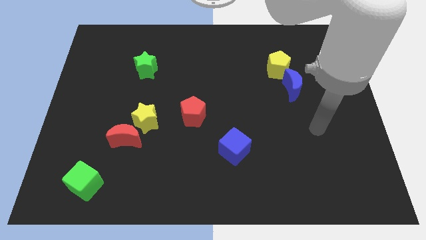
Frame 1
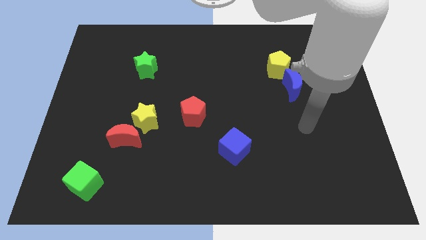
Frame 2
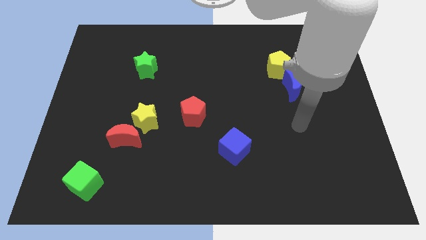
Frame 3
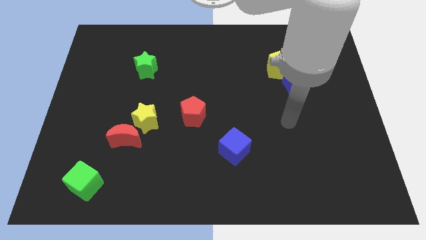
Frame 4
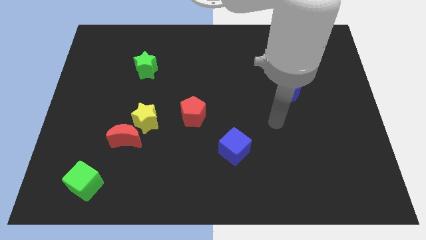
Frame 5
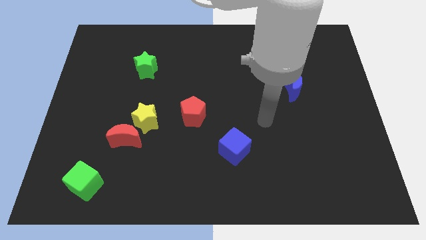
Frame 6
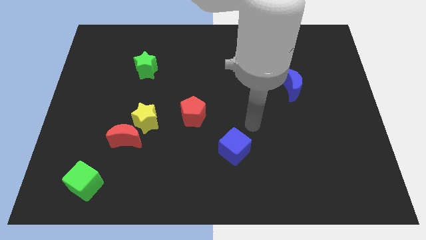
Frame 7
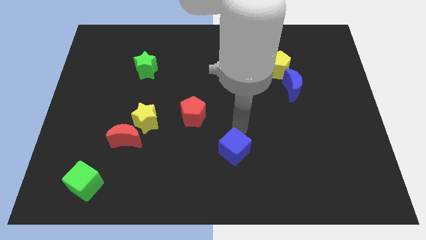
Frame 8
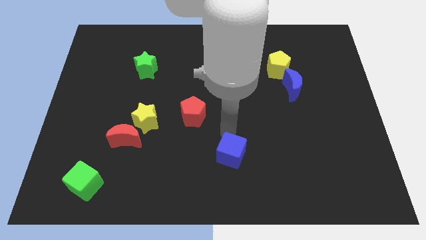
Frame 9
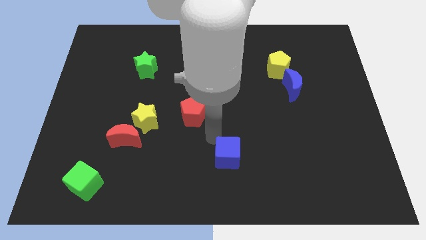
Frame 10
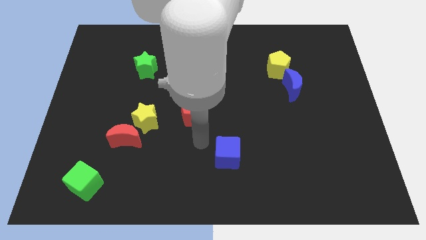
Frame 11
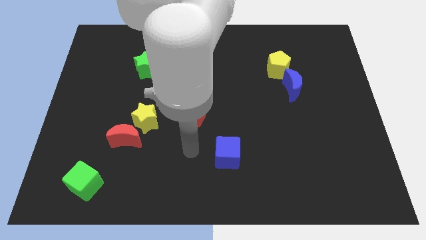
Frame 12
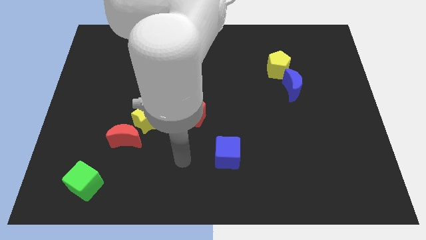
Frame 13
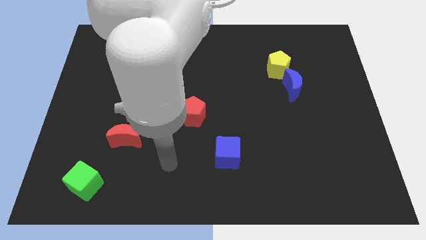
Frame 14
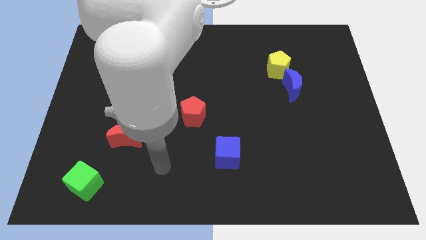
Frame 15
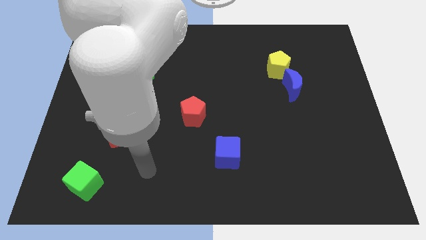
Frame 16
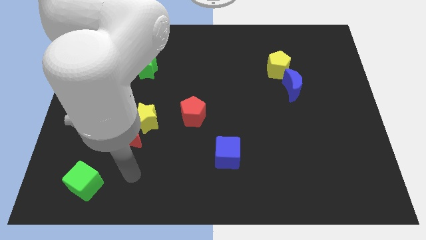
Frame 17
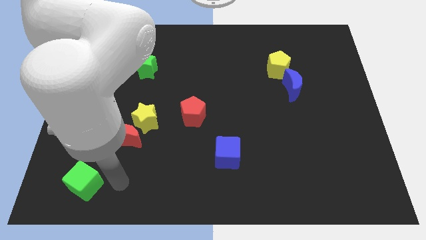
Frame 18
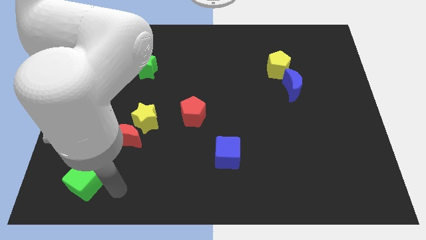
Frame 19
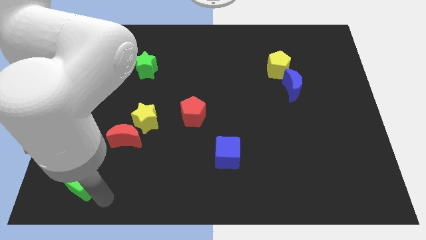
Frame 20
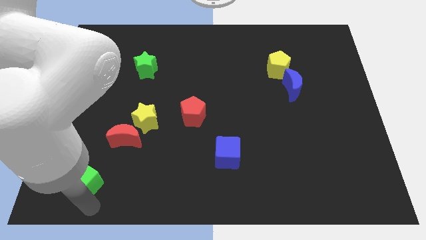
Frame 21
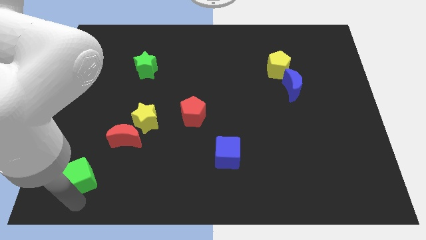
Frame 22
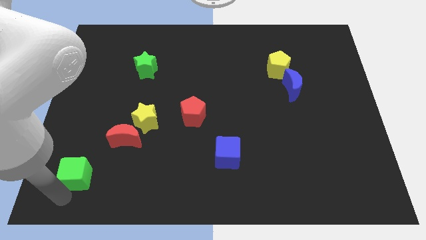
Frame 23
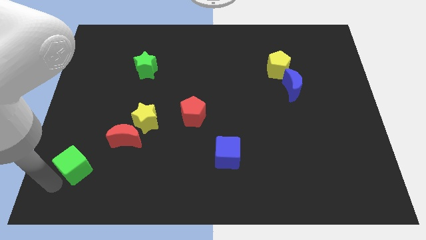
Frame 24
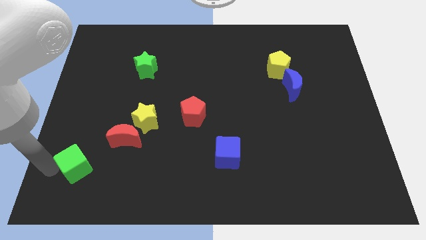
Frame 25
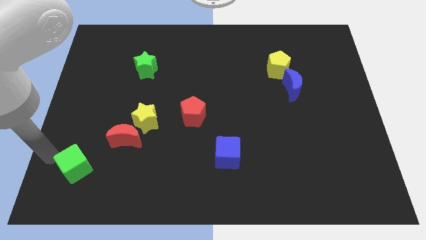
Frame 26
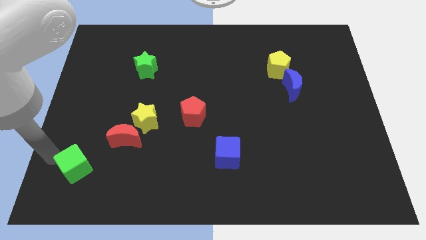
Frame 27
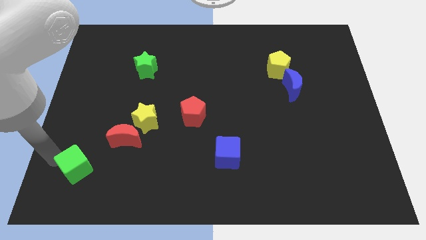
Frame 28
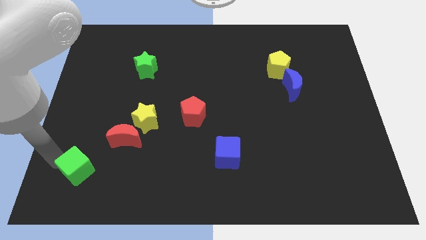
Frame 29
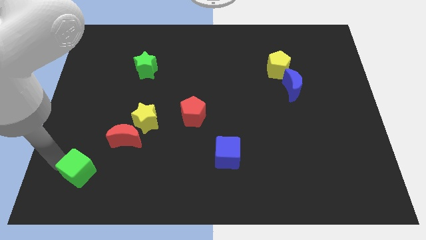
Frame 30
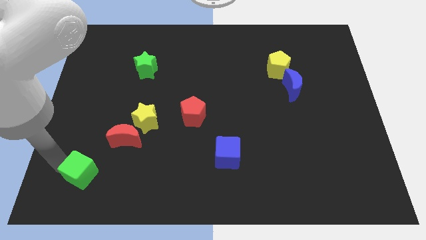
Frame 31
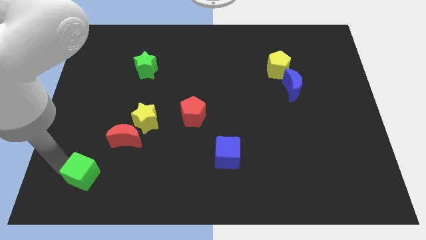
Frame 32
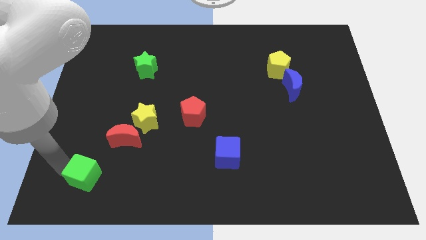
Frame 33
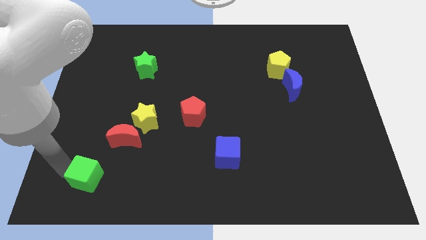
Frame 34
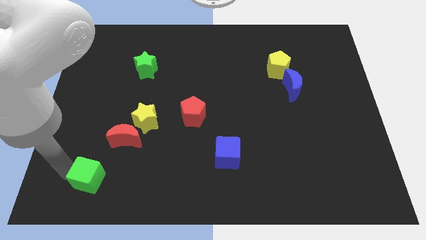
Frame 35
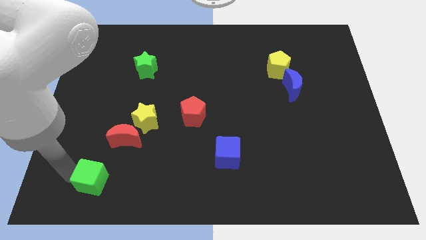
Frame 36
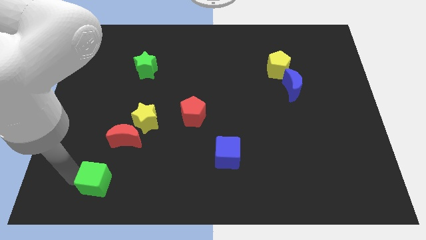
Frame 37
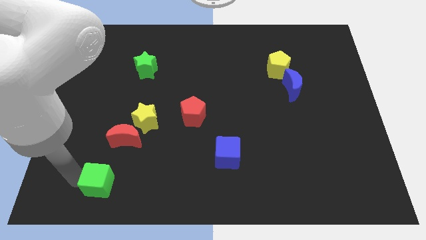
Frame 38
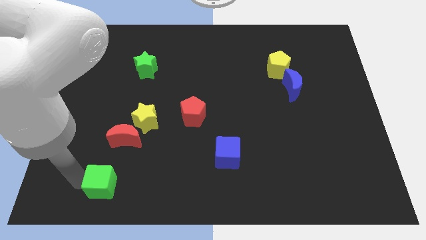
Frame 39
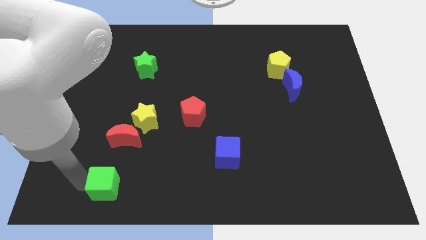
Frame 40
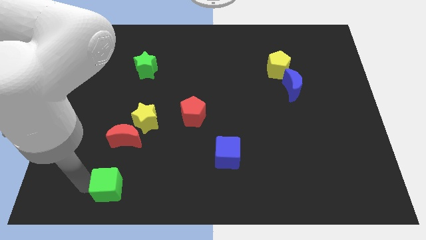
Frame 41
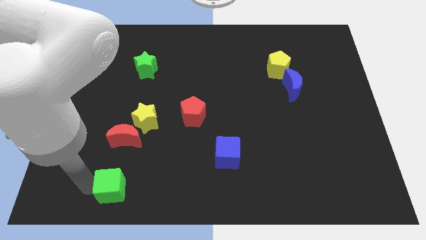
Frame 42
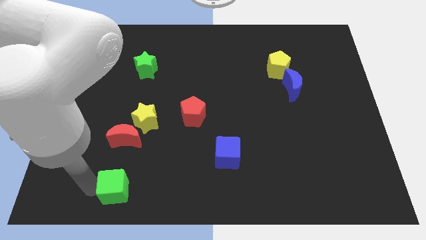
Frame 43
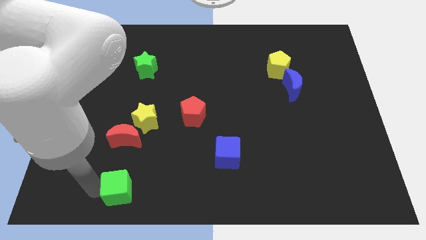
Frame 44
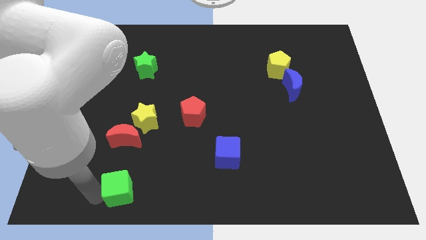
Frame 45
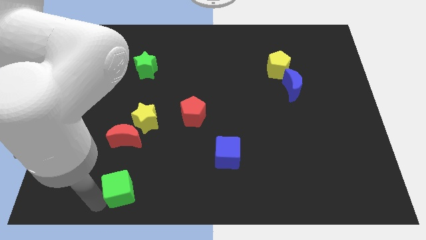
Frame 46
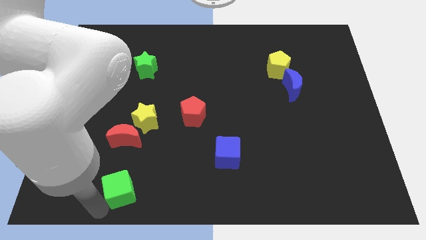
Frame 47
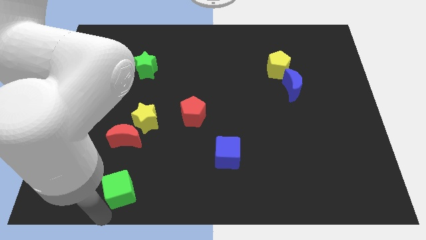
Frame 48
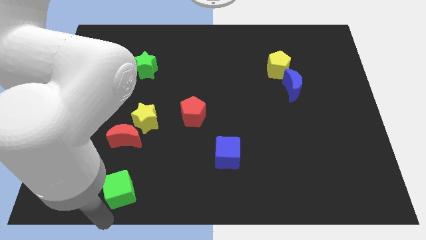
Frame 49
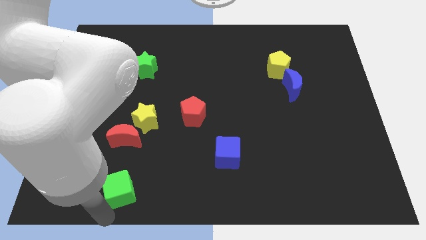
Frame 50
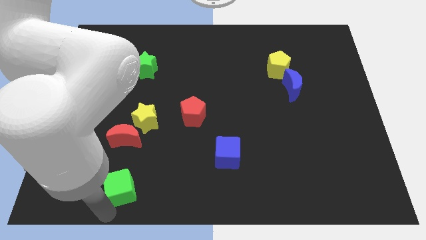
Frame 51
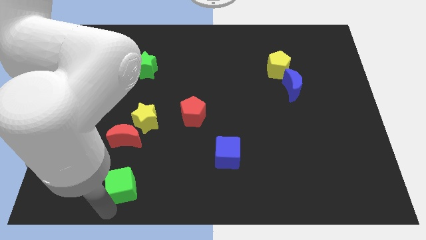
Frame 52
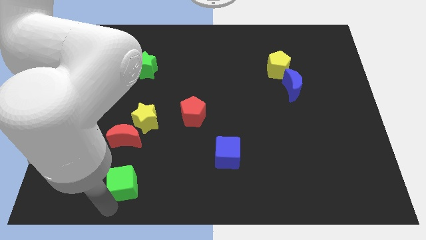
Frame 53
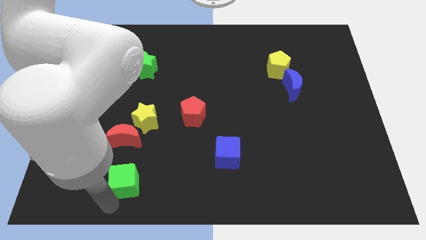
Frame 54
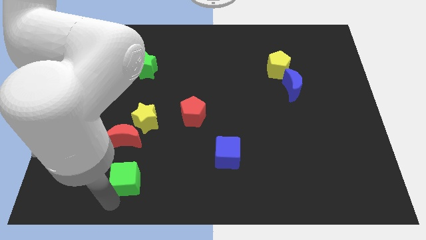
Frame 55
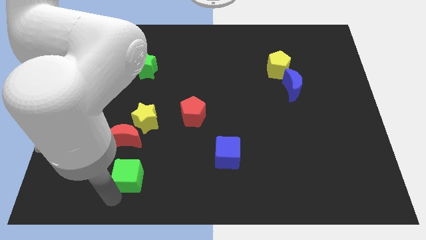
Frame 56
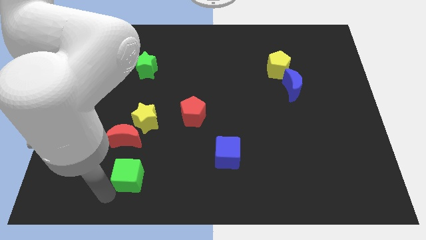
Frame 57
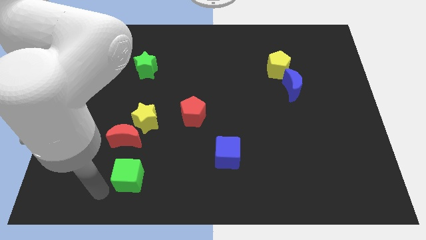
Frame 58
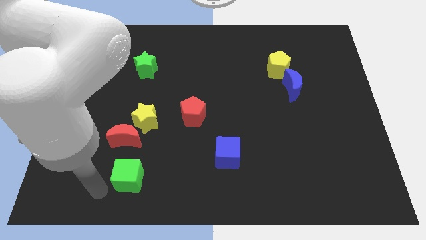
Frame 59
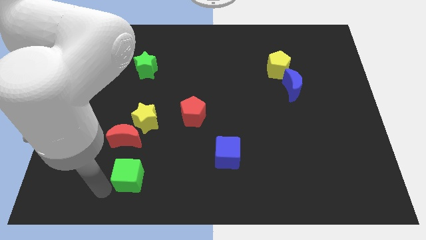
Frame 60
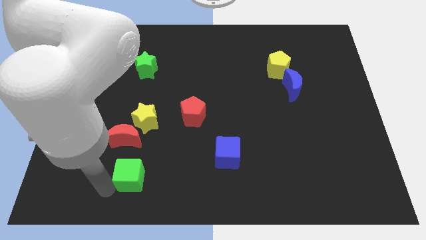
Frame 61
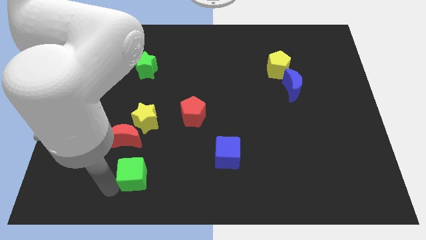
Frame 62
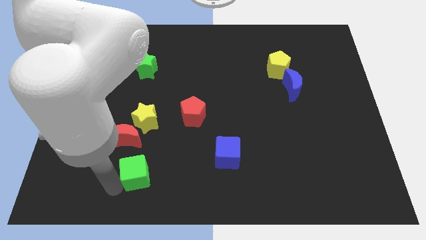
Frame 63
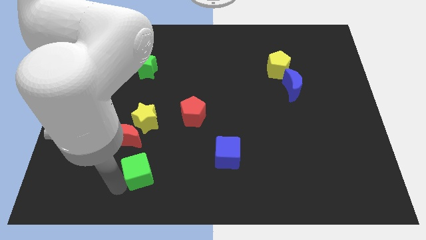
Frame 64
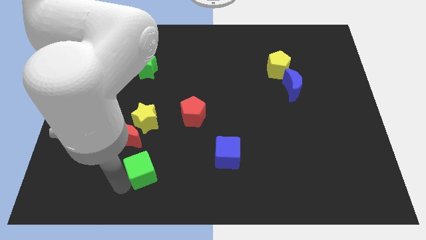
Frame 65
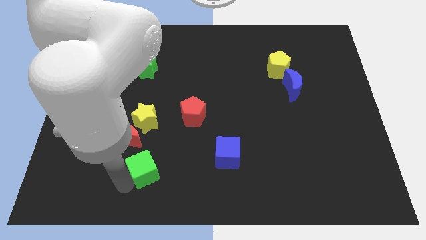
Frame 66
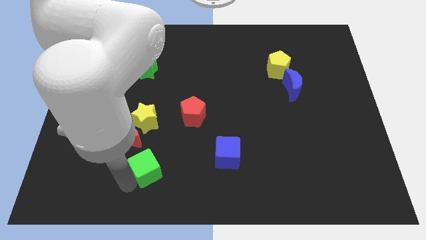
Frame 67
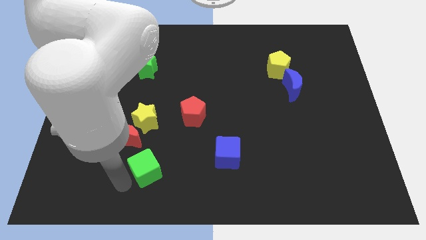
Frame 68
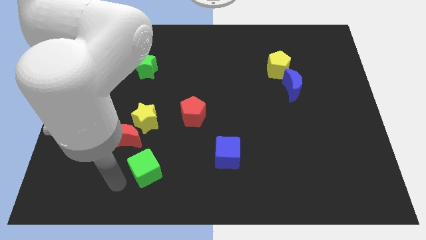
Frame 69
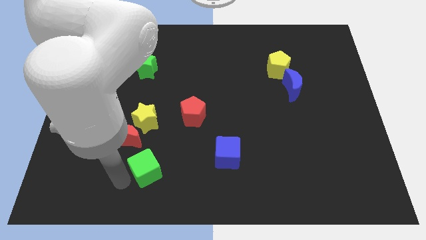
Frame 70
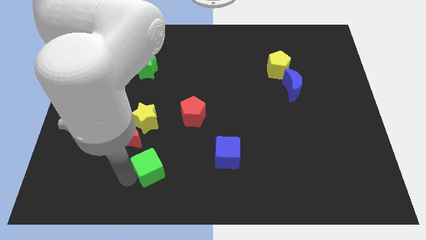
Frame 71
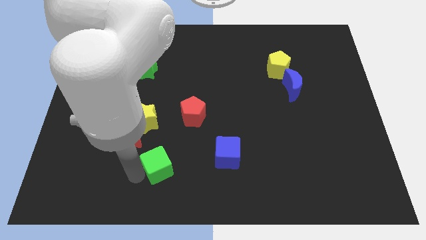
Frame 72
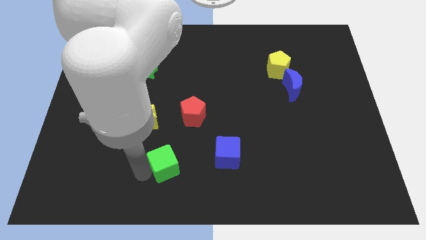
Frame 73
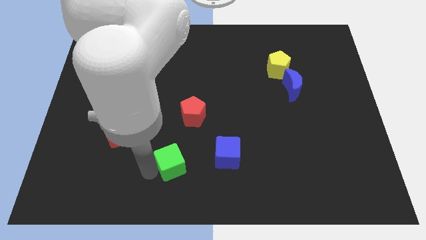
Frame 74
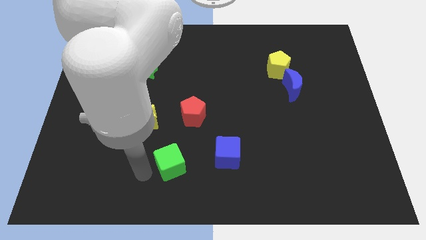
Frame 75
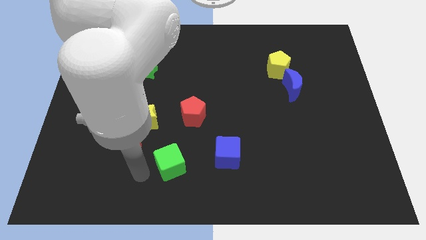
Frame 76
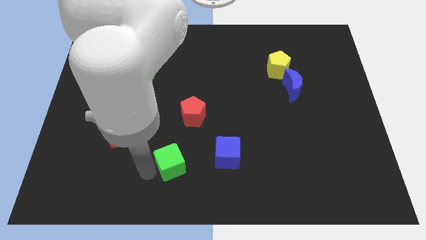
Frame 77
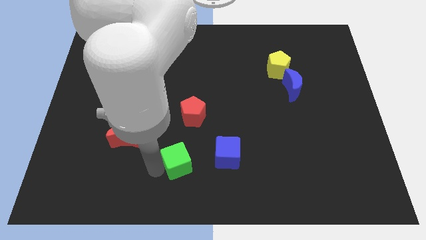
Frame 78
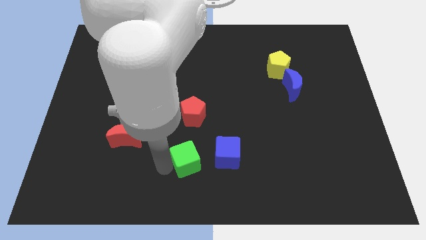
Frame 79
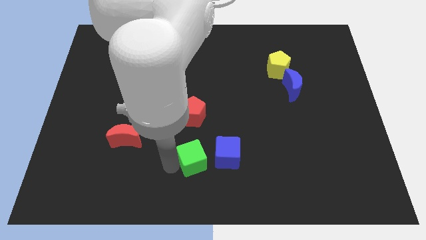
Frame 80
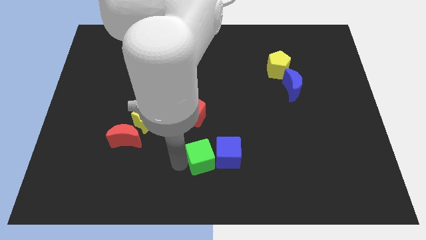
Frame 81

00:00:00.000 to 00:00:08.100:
put the green cube to the blue cube
